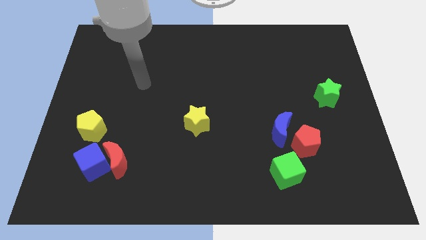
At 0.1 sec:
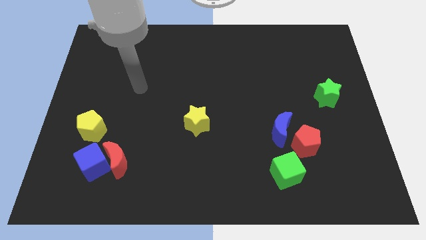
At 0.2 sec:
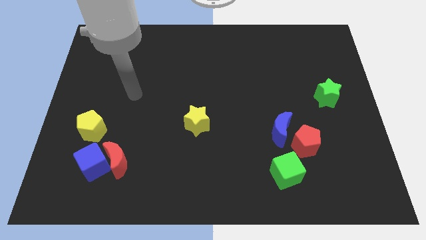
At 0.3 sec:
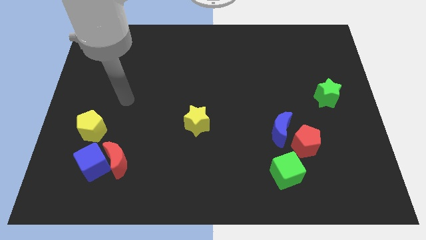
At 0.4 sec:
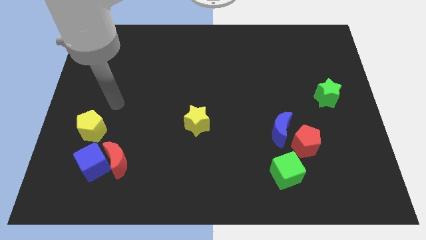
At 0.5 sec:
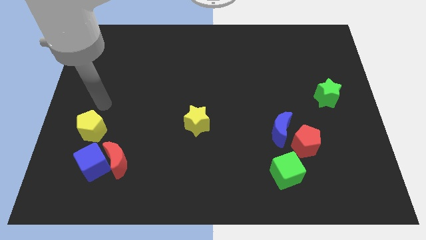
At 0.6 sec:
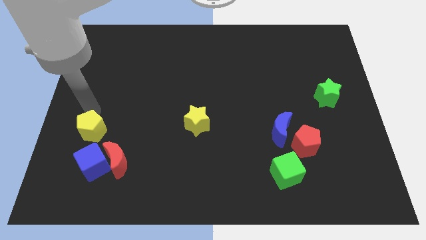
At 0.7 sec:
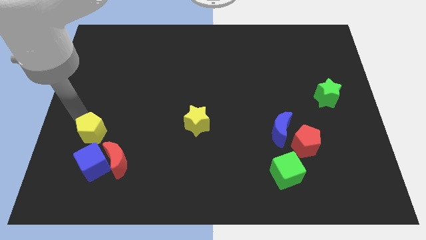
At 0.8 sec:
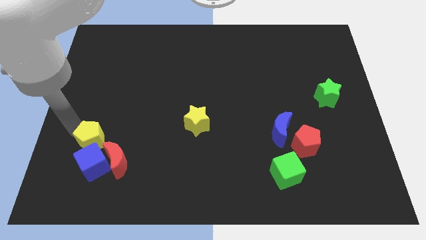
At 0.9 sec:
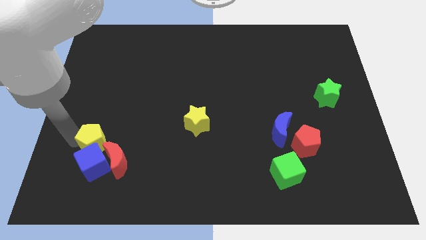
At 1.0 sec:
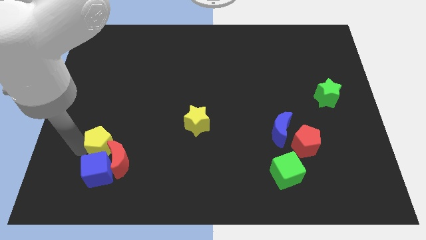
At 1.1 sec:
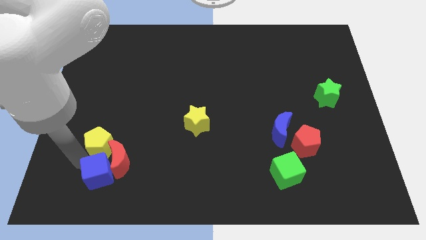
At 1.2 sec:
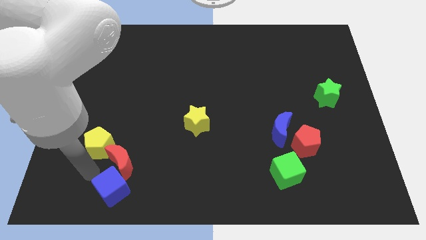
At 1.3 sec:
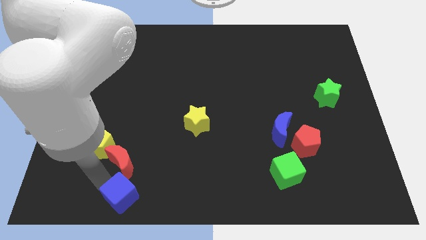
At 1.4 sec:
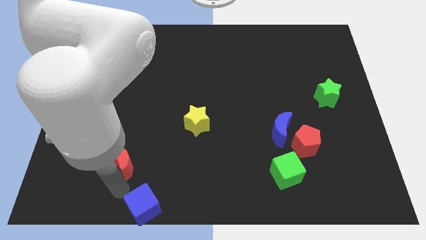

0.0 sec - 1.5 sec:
pull the red moon apart from the blue cube

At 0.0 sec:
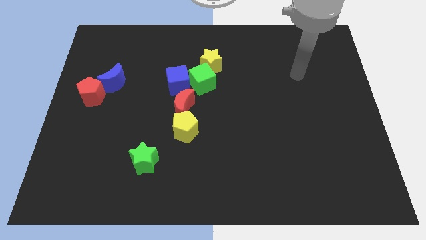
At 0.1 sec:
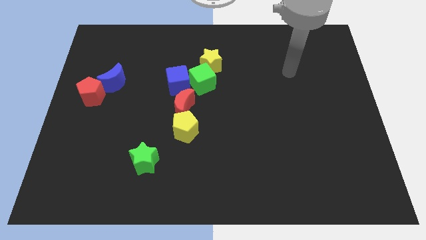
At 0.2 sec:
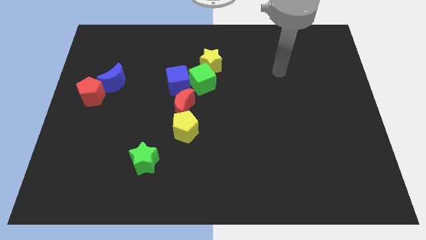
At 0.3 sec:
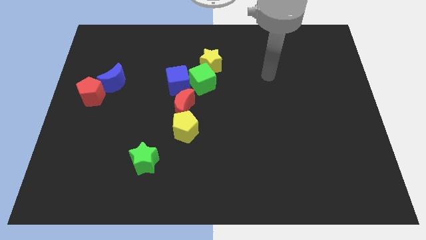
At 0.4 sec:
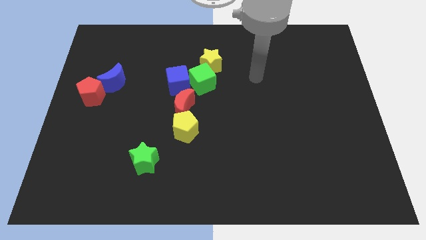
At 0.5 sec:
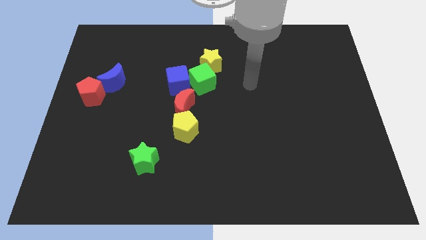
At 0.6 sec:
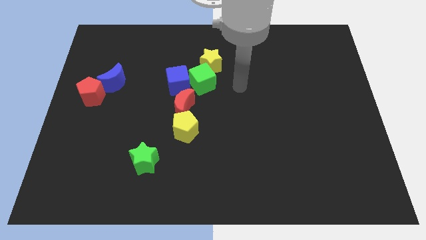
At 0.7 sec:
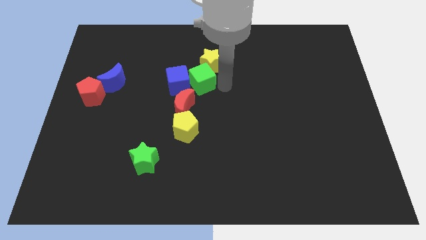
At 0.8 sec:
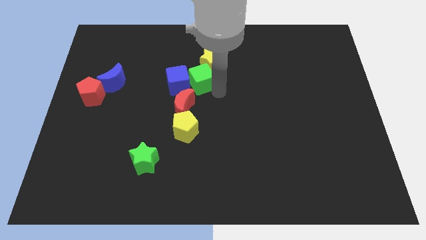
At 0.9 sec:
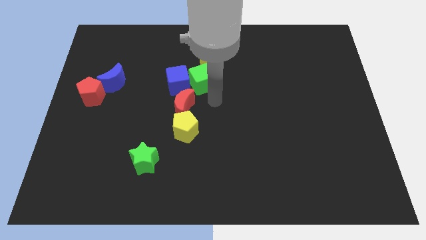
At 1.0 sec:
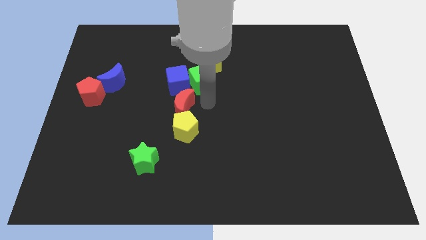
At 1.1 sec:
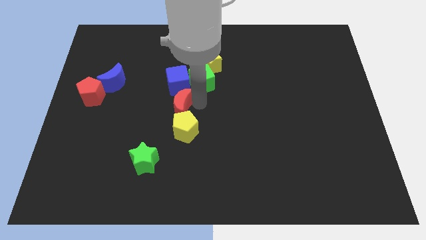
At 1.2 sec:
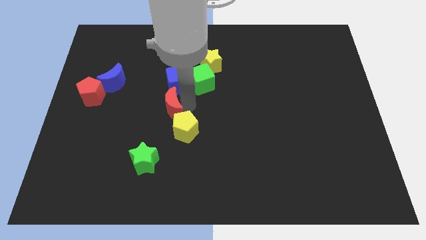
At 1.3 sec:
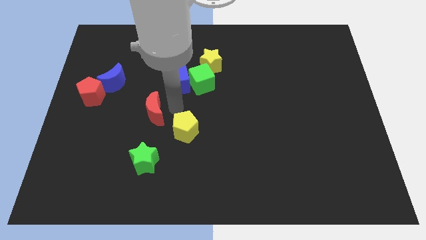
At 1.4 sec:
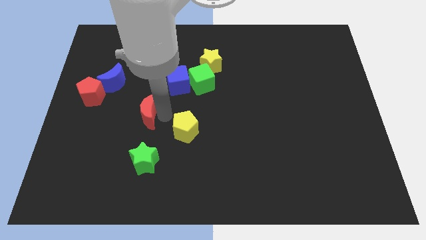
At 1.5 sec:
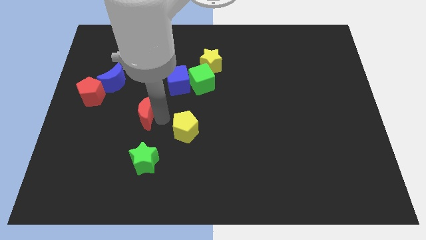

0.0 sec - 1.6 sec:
move the yellow pentagon away from the red moon

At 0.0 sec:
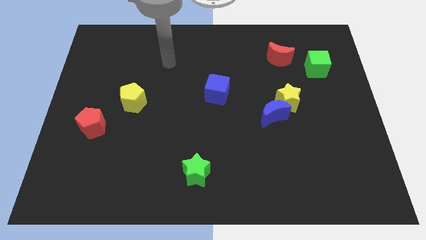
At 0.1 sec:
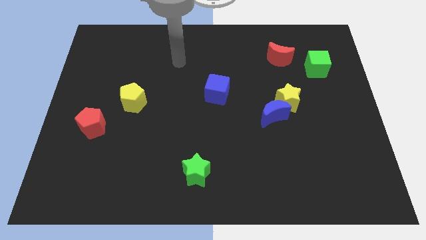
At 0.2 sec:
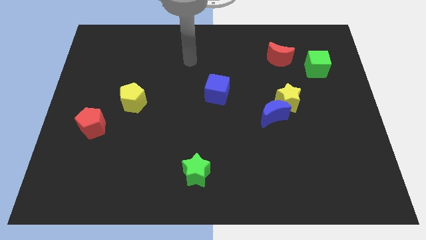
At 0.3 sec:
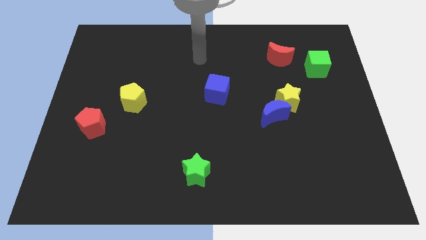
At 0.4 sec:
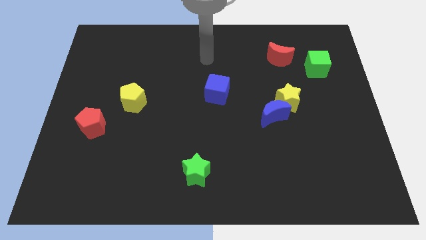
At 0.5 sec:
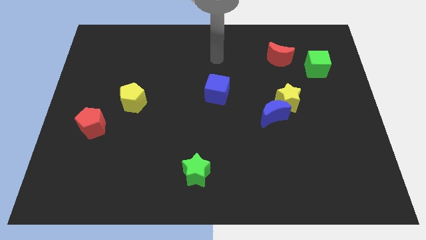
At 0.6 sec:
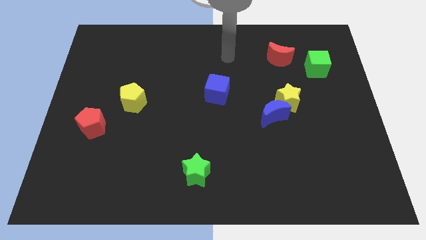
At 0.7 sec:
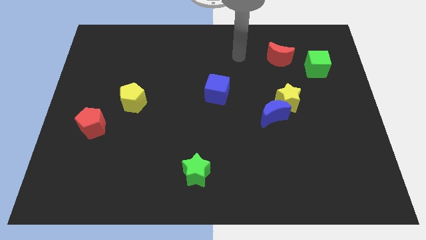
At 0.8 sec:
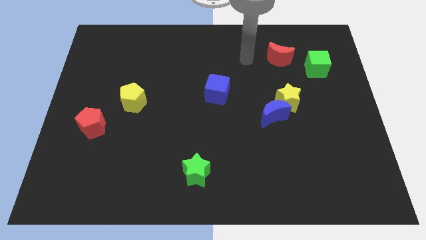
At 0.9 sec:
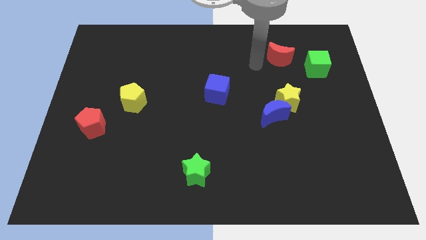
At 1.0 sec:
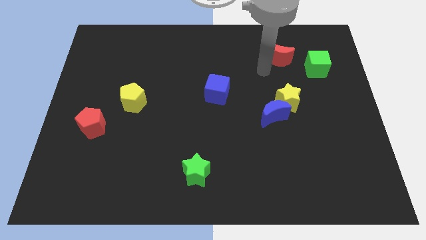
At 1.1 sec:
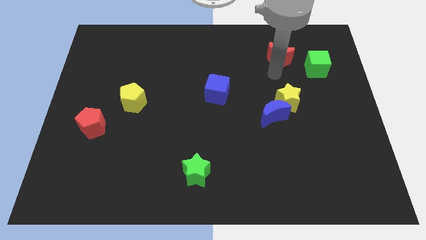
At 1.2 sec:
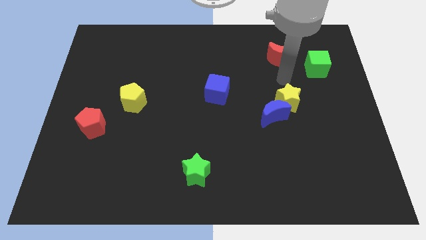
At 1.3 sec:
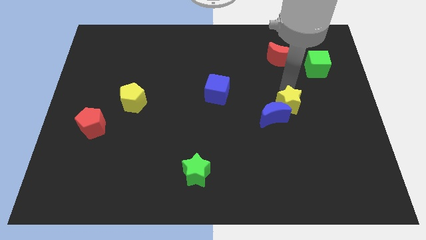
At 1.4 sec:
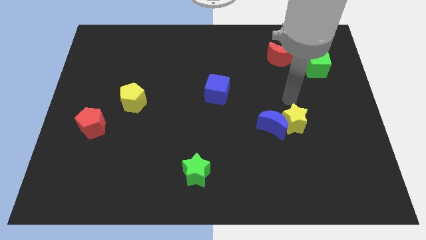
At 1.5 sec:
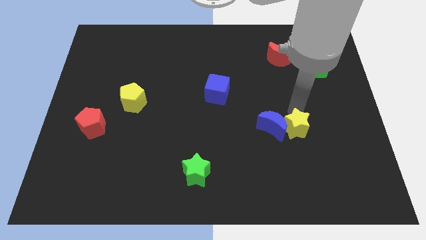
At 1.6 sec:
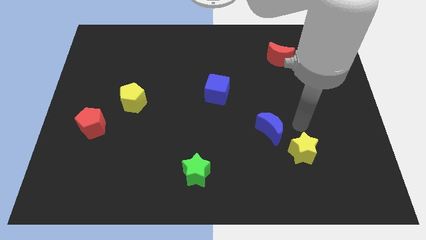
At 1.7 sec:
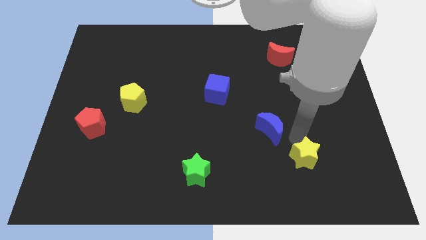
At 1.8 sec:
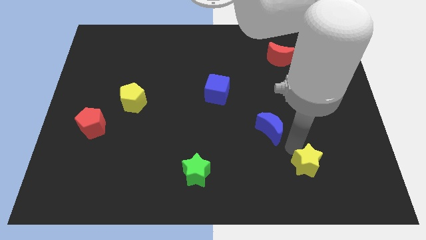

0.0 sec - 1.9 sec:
separate the blue moon from the yellow star

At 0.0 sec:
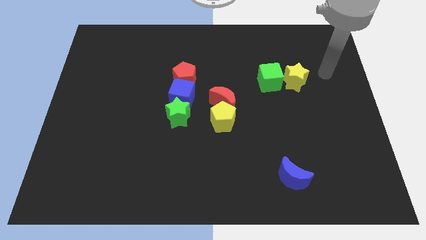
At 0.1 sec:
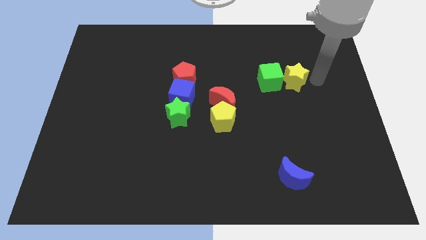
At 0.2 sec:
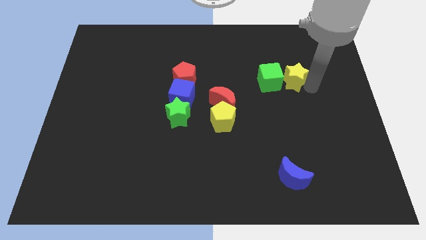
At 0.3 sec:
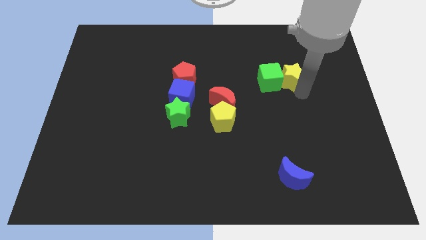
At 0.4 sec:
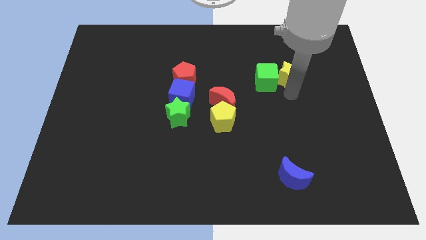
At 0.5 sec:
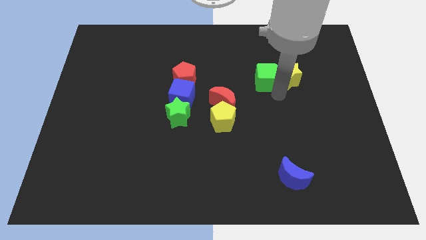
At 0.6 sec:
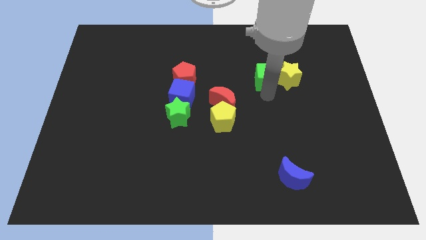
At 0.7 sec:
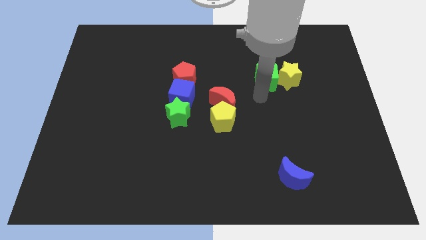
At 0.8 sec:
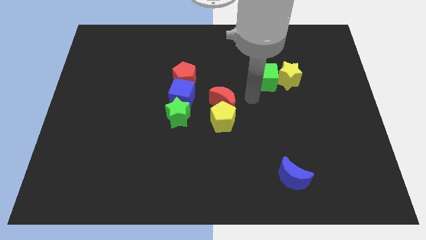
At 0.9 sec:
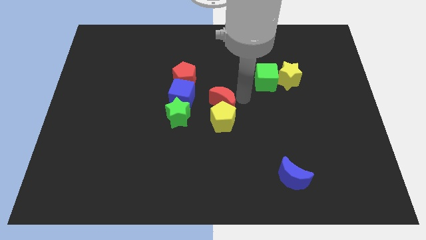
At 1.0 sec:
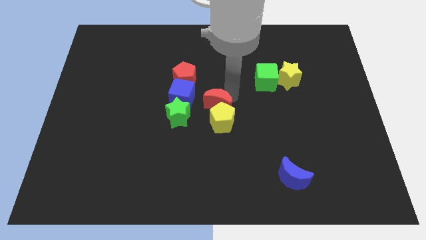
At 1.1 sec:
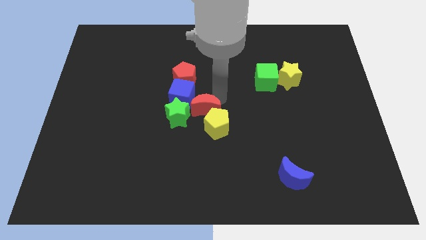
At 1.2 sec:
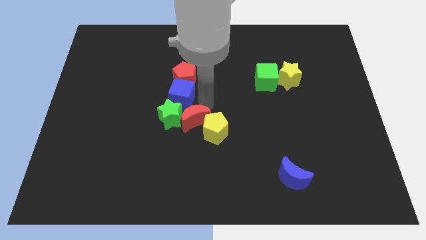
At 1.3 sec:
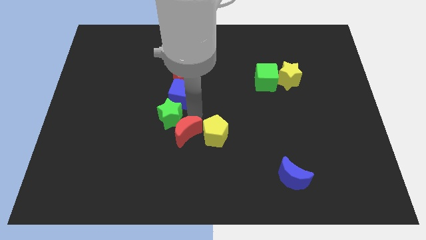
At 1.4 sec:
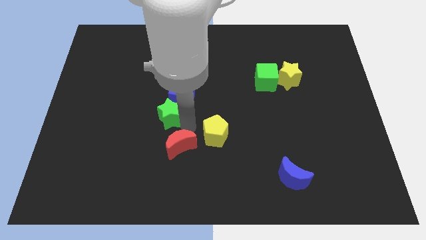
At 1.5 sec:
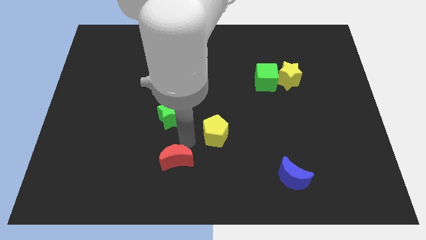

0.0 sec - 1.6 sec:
pull the yellow pentagon apart from the red moon

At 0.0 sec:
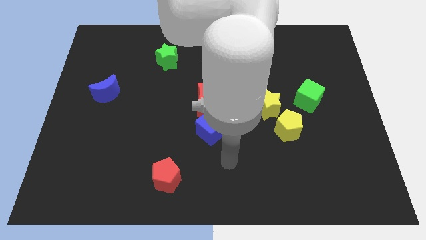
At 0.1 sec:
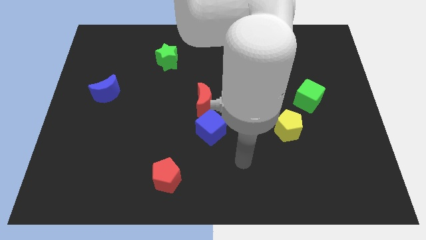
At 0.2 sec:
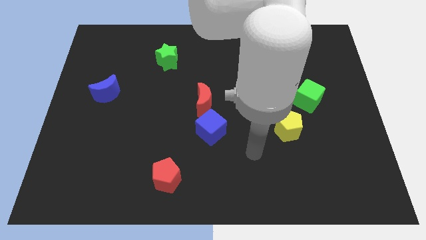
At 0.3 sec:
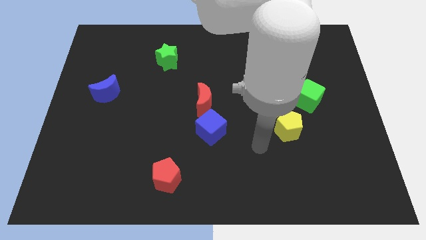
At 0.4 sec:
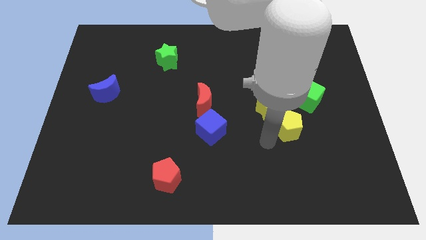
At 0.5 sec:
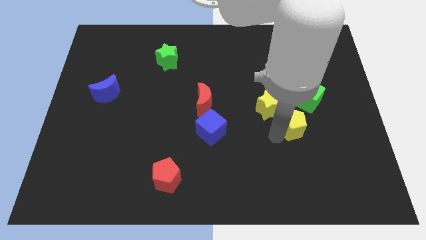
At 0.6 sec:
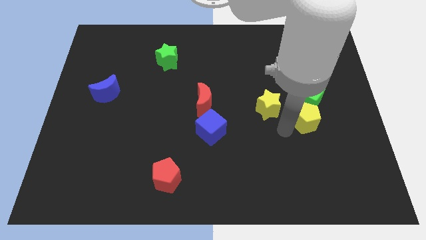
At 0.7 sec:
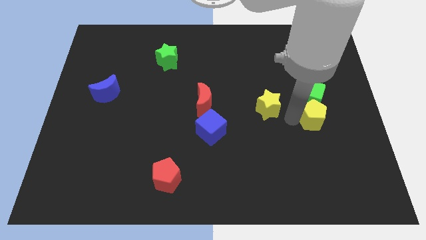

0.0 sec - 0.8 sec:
pull the yellow star apart from the yellow pentagon

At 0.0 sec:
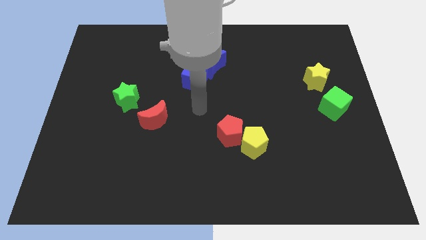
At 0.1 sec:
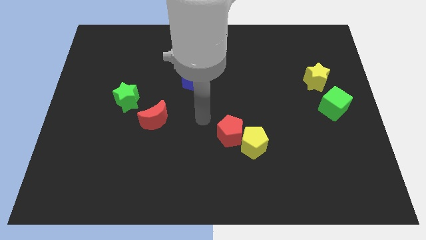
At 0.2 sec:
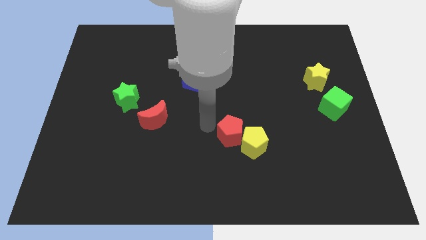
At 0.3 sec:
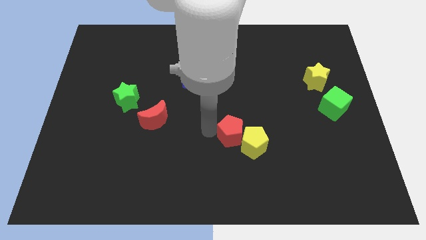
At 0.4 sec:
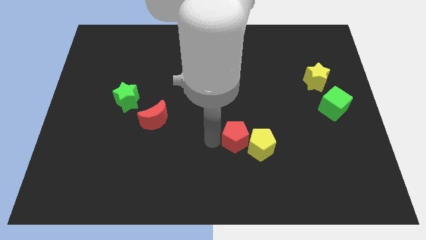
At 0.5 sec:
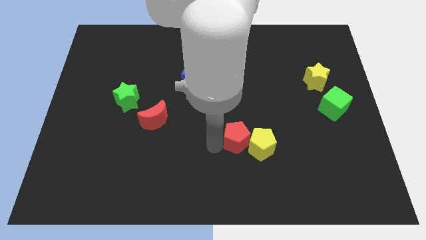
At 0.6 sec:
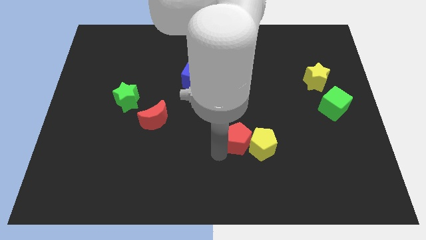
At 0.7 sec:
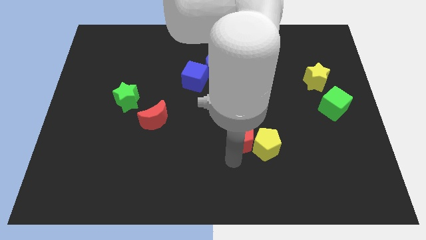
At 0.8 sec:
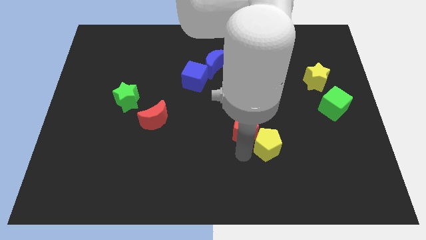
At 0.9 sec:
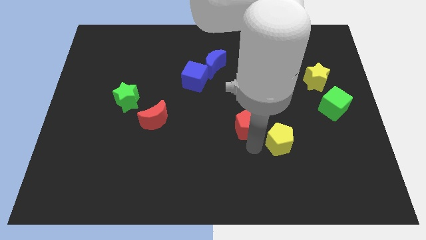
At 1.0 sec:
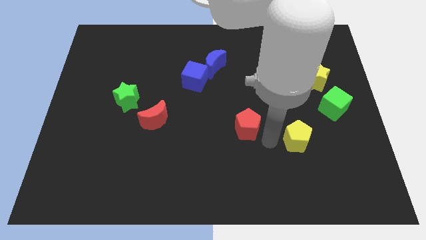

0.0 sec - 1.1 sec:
separate the red pentagon from the yellow pentagon

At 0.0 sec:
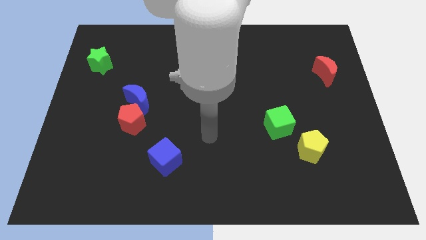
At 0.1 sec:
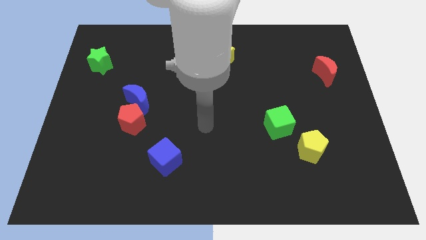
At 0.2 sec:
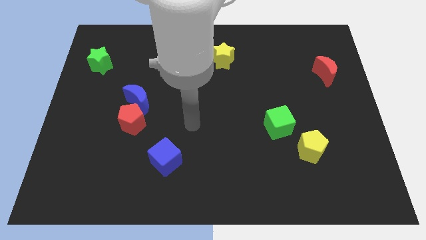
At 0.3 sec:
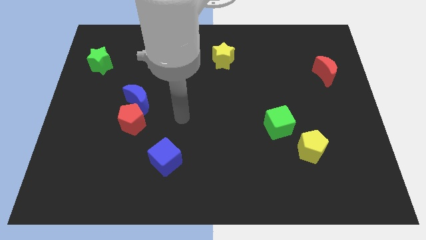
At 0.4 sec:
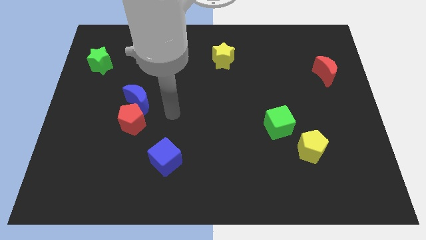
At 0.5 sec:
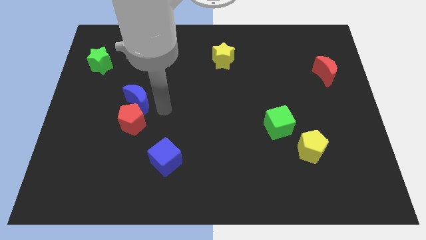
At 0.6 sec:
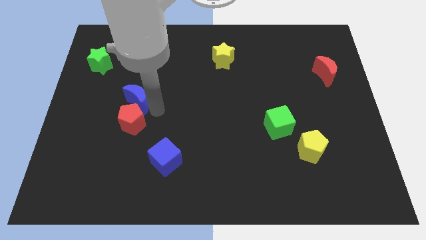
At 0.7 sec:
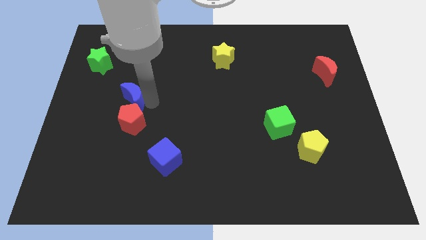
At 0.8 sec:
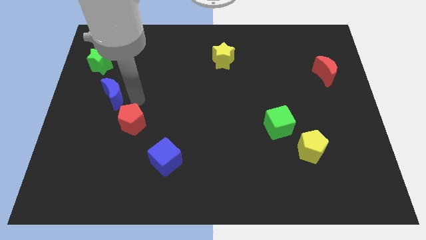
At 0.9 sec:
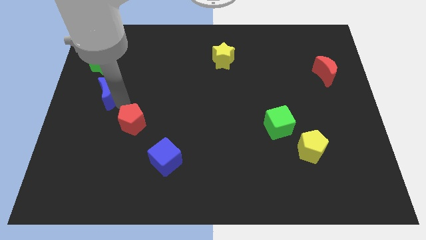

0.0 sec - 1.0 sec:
move the red pentagon away from the blue moon
